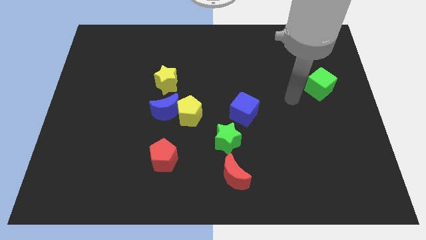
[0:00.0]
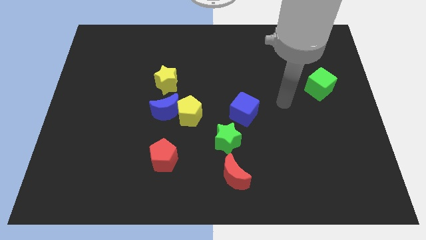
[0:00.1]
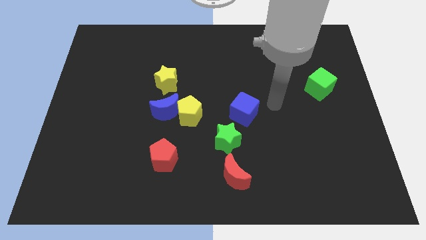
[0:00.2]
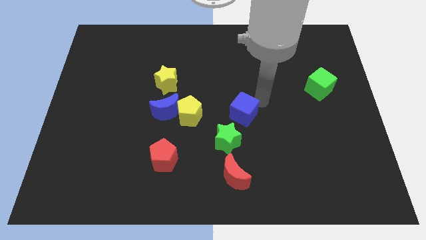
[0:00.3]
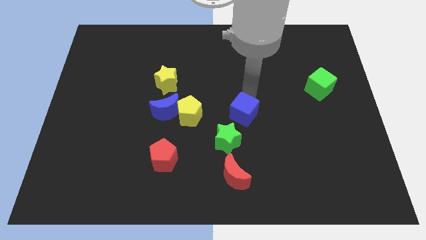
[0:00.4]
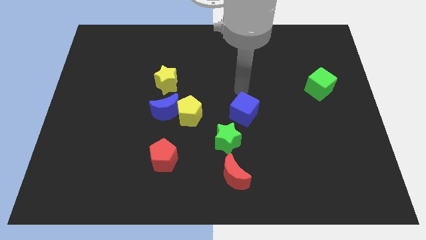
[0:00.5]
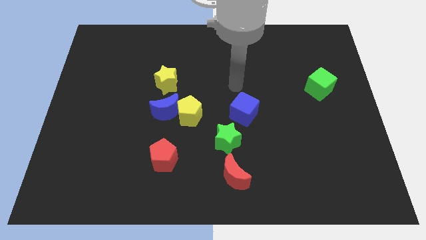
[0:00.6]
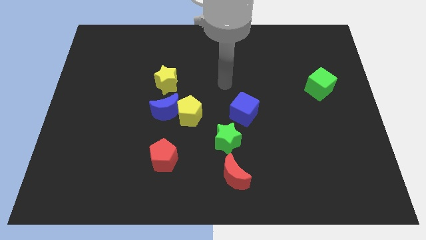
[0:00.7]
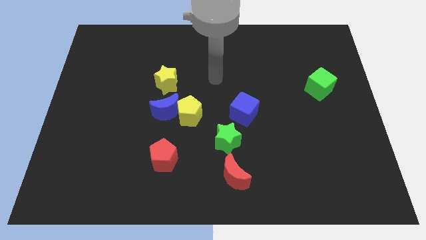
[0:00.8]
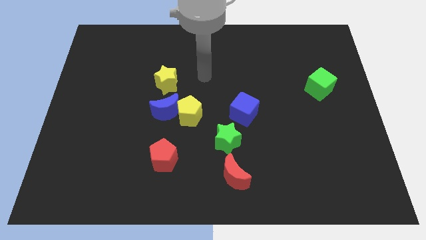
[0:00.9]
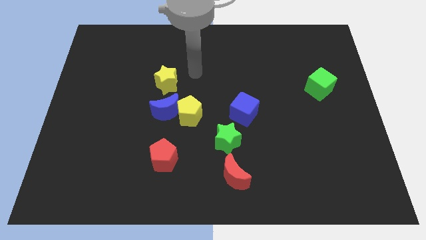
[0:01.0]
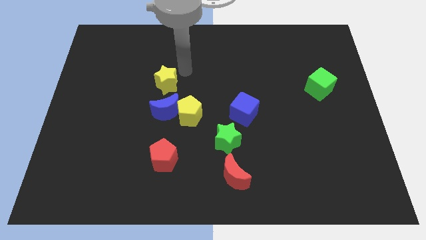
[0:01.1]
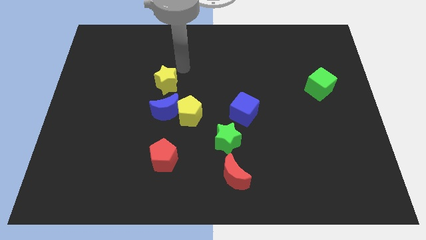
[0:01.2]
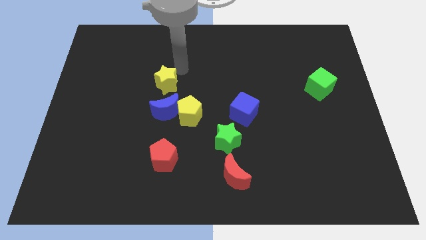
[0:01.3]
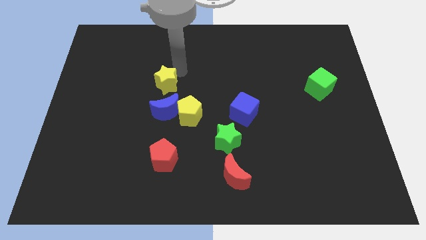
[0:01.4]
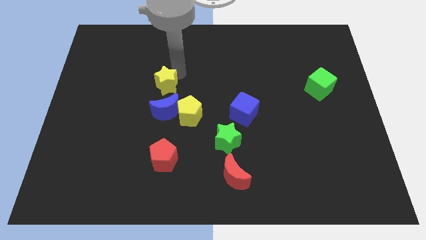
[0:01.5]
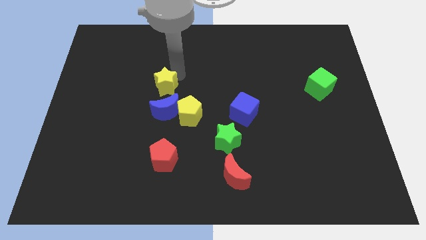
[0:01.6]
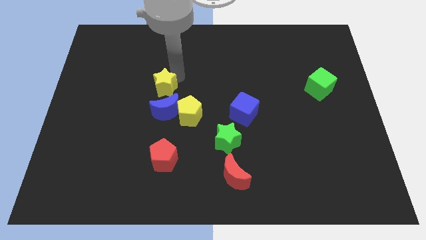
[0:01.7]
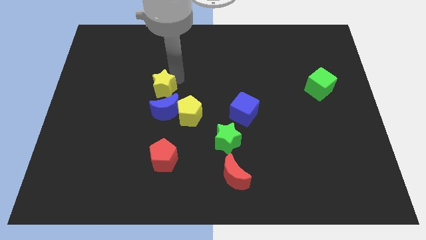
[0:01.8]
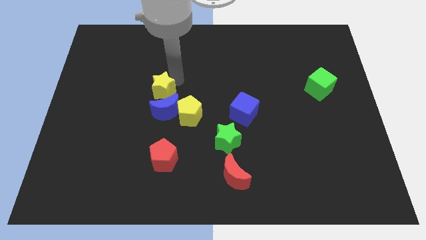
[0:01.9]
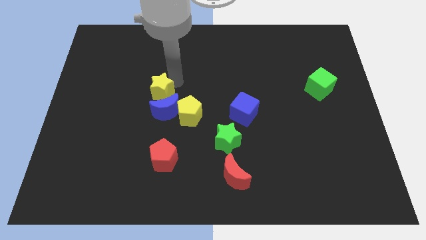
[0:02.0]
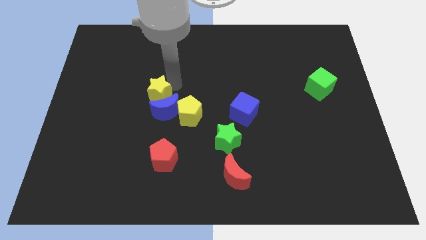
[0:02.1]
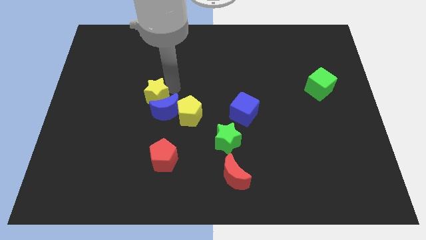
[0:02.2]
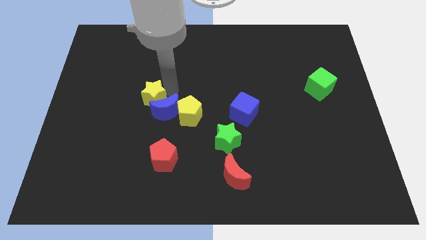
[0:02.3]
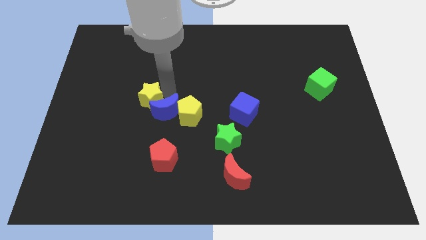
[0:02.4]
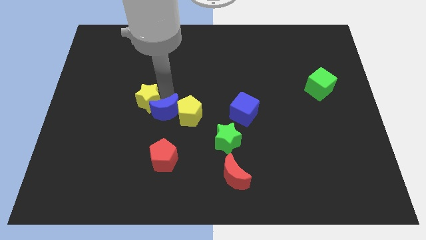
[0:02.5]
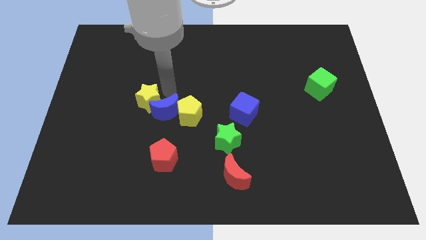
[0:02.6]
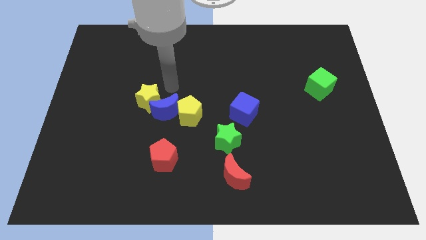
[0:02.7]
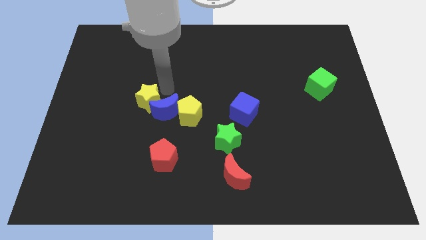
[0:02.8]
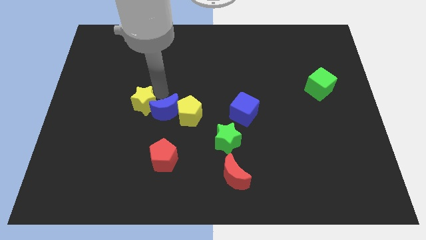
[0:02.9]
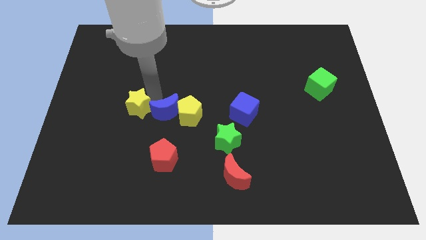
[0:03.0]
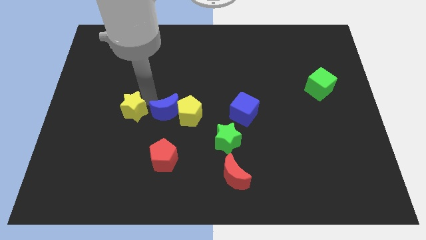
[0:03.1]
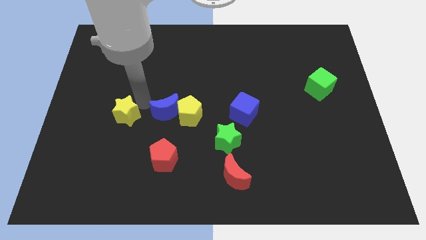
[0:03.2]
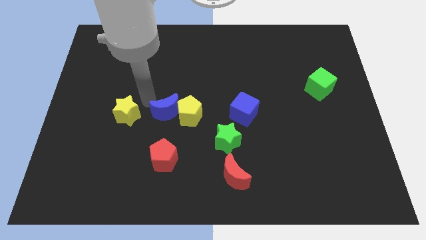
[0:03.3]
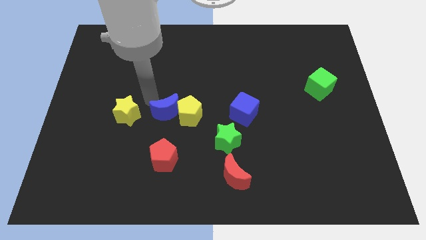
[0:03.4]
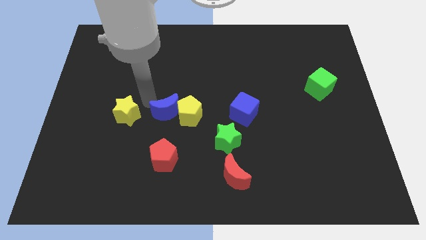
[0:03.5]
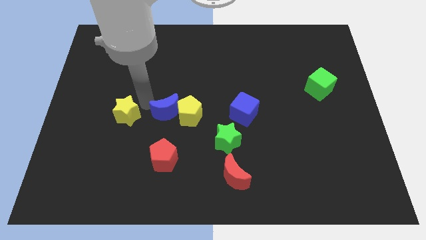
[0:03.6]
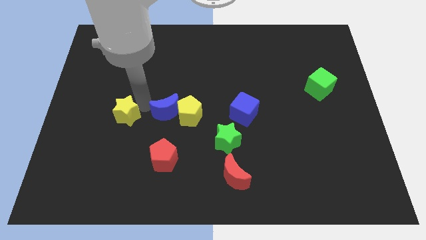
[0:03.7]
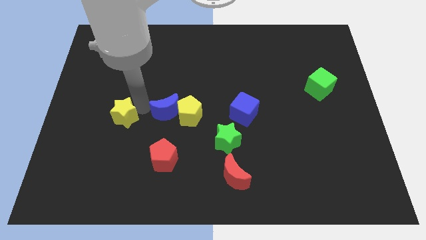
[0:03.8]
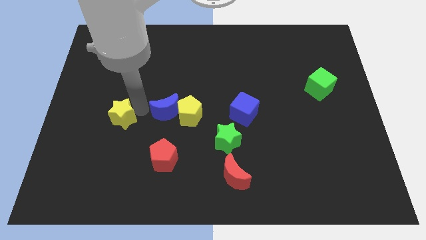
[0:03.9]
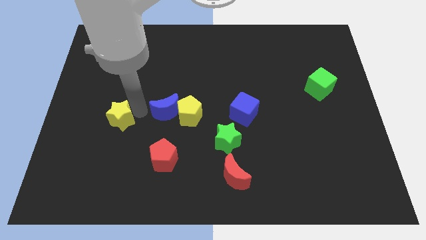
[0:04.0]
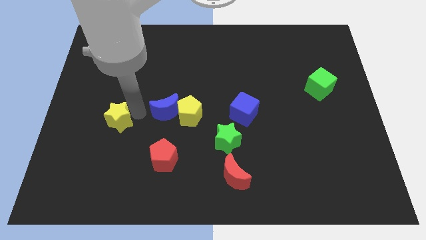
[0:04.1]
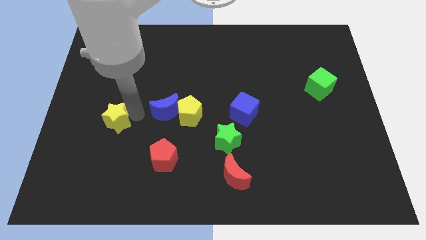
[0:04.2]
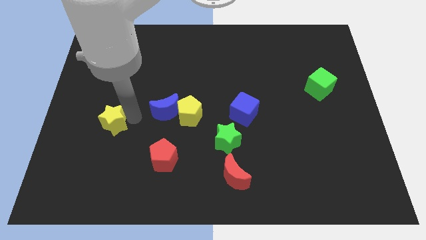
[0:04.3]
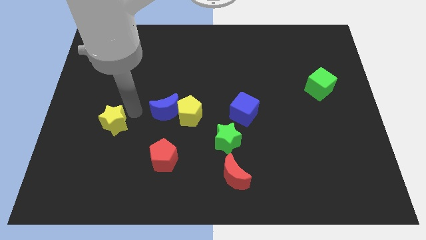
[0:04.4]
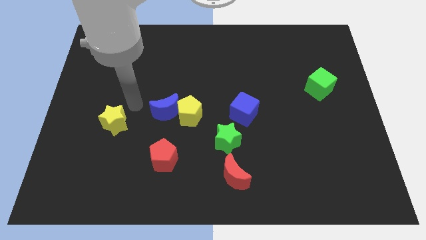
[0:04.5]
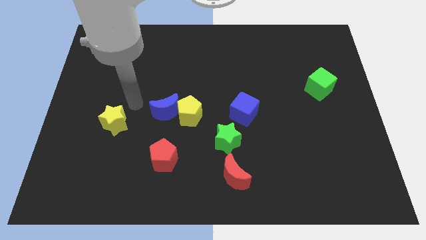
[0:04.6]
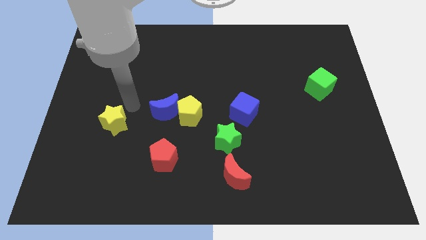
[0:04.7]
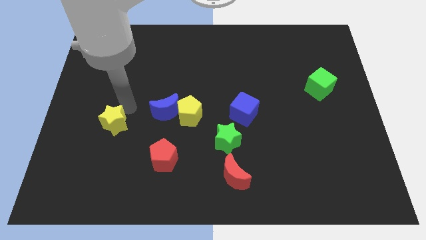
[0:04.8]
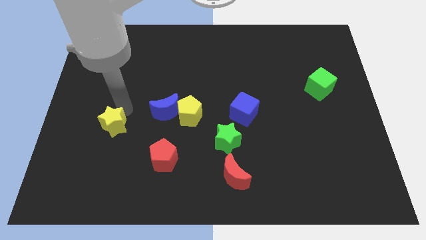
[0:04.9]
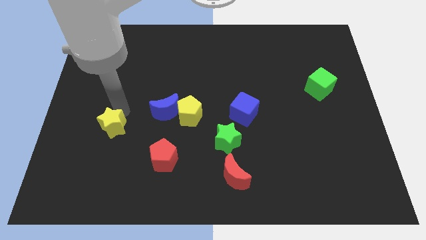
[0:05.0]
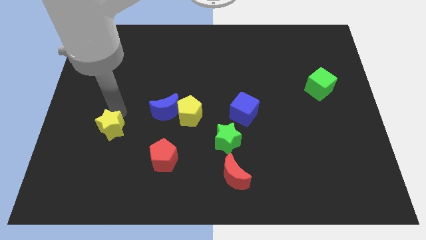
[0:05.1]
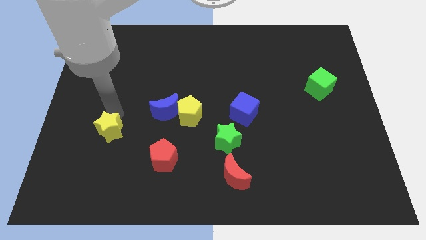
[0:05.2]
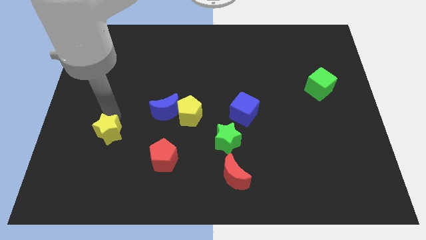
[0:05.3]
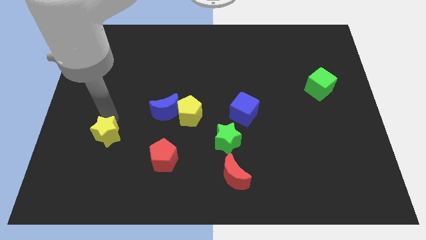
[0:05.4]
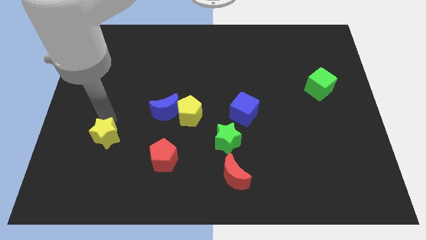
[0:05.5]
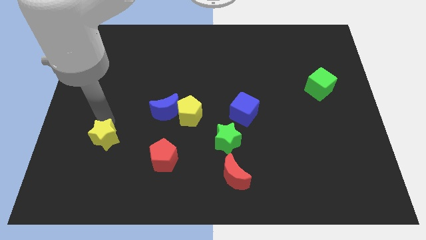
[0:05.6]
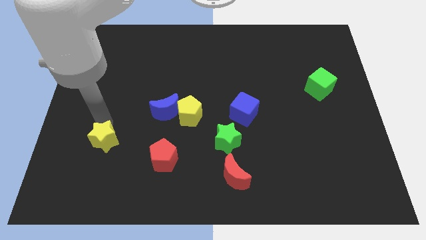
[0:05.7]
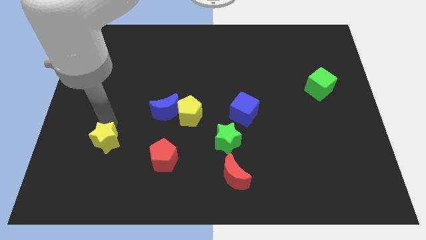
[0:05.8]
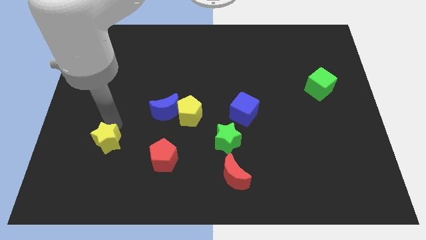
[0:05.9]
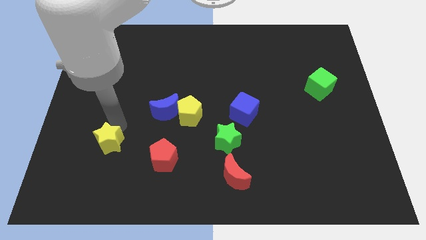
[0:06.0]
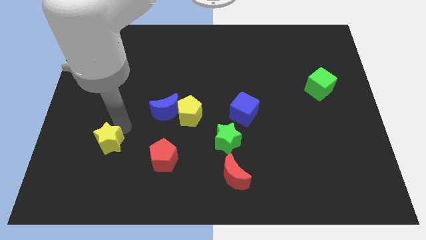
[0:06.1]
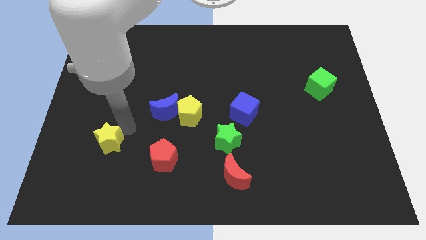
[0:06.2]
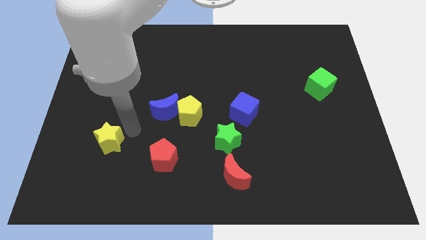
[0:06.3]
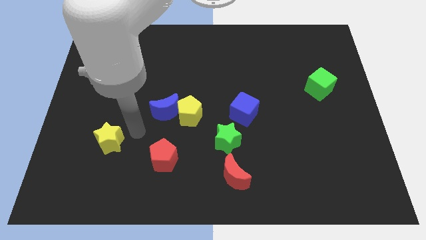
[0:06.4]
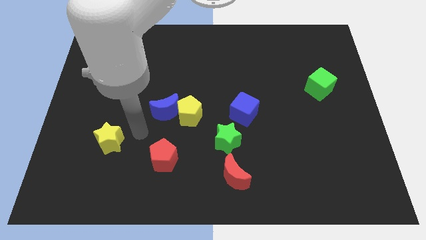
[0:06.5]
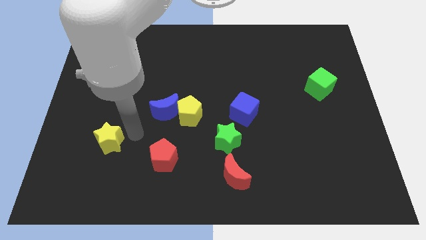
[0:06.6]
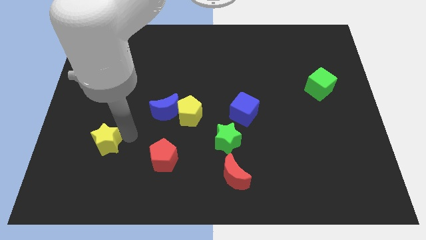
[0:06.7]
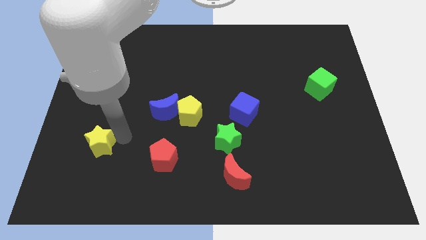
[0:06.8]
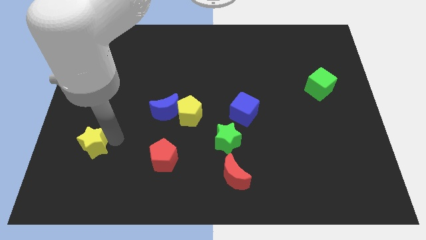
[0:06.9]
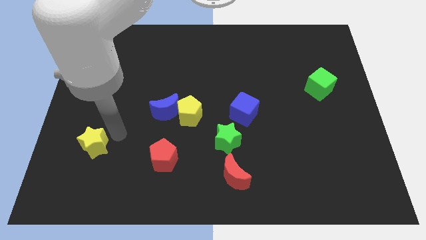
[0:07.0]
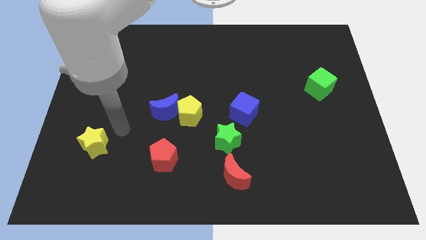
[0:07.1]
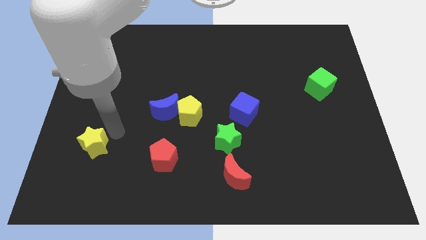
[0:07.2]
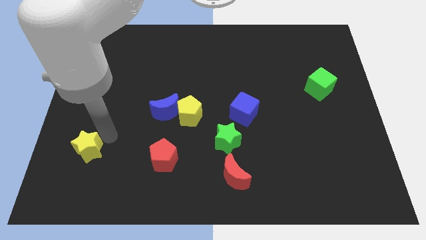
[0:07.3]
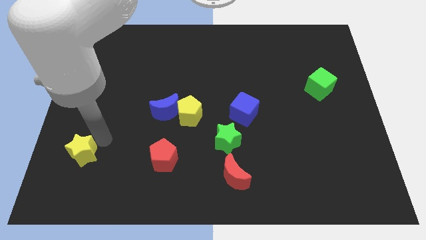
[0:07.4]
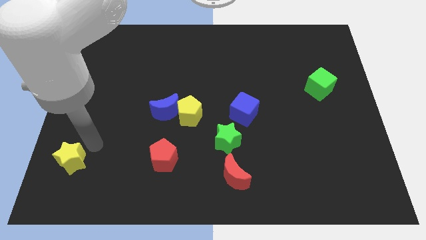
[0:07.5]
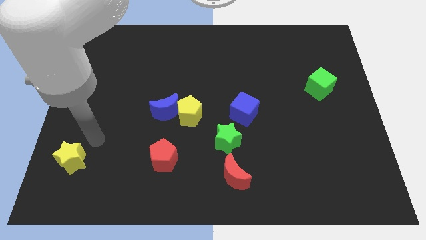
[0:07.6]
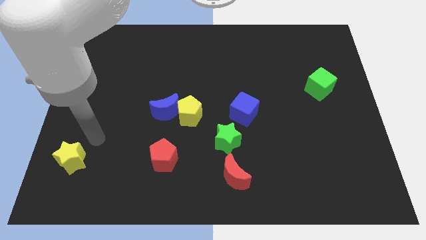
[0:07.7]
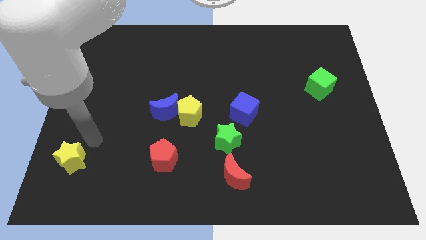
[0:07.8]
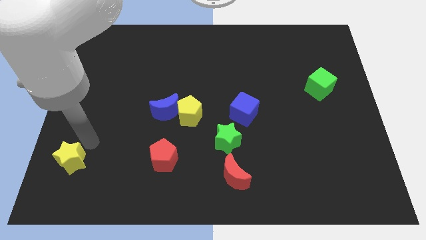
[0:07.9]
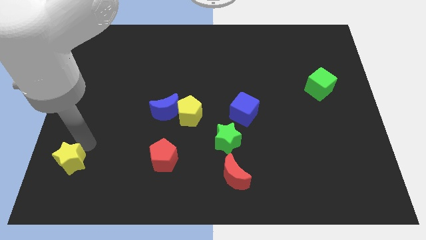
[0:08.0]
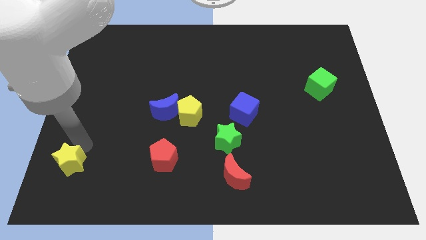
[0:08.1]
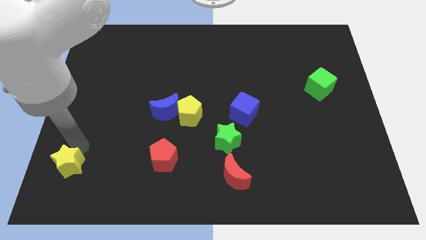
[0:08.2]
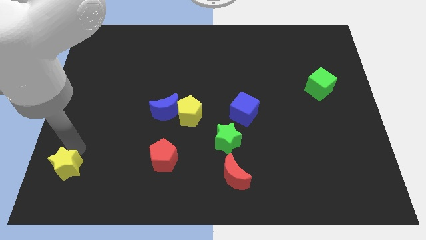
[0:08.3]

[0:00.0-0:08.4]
slide the yellow star to the bottom left corner
